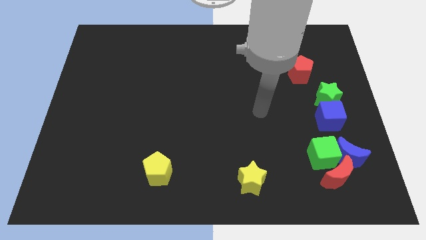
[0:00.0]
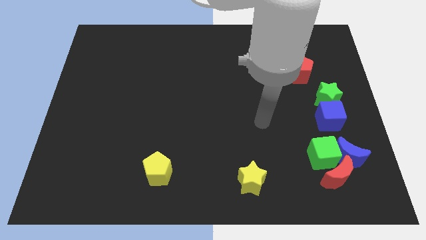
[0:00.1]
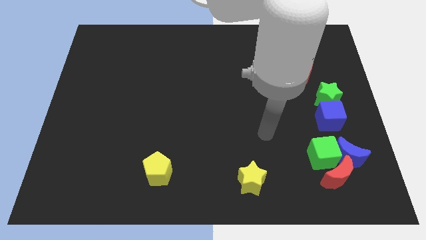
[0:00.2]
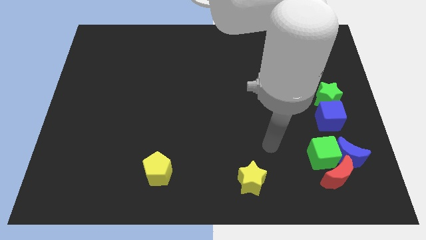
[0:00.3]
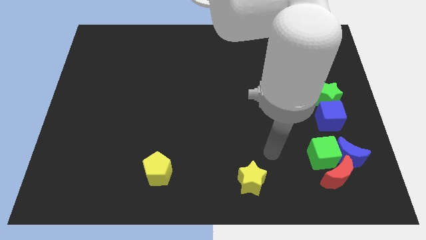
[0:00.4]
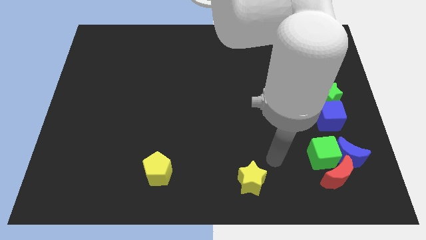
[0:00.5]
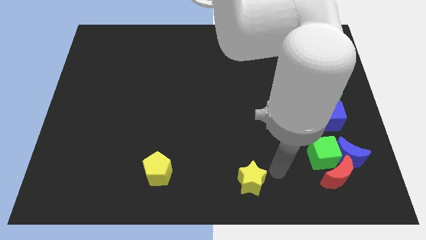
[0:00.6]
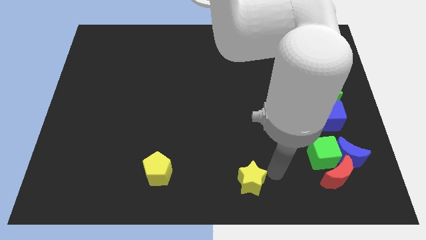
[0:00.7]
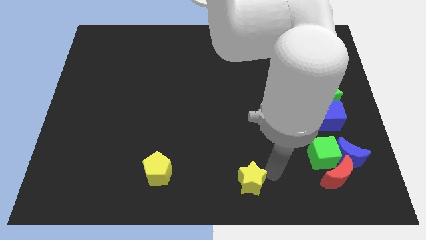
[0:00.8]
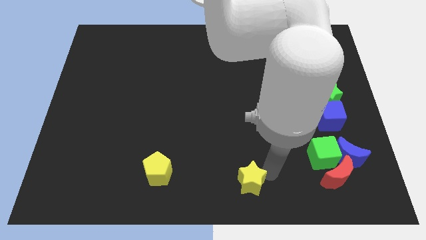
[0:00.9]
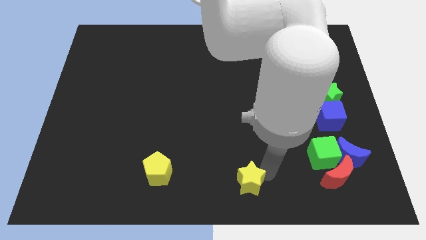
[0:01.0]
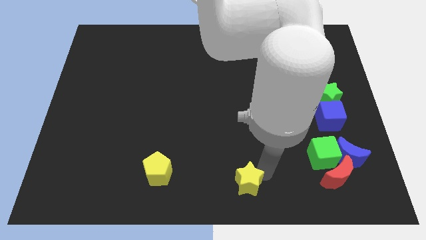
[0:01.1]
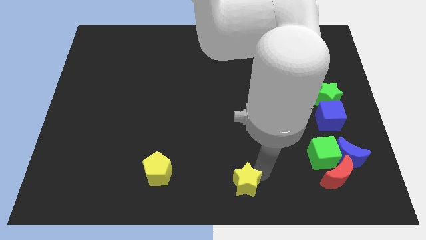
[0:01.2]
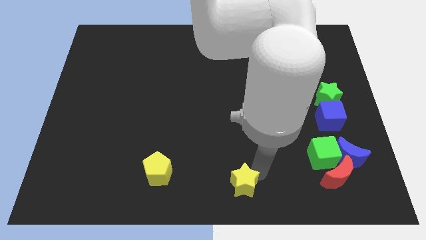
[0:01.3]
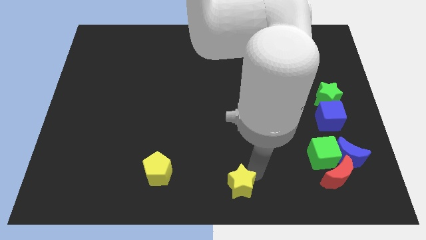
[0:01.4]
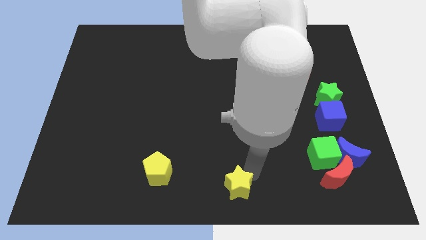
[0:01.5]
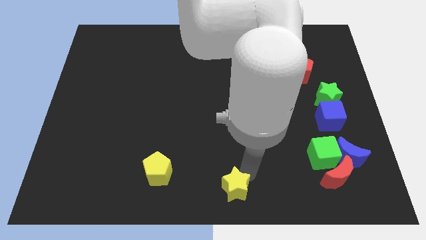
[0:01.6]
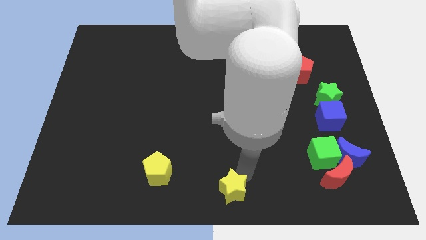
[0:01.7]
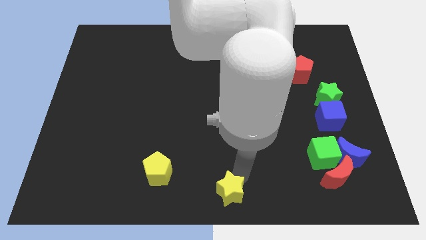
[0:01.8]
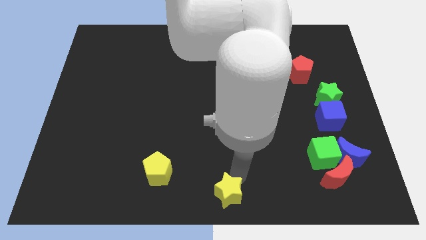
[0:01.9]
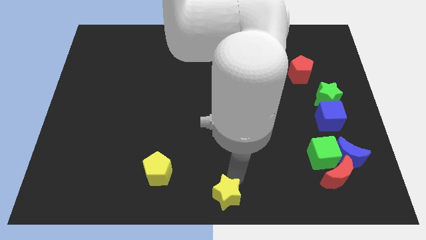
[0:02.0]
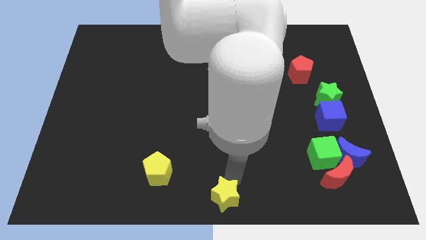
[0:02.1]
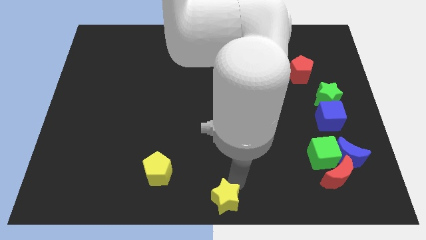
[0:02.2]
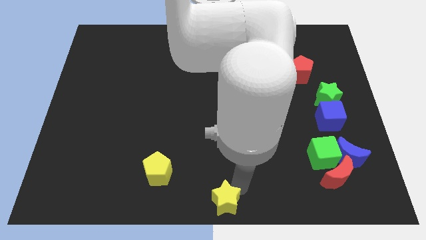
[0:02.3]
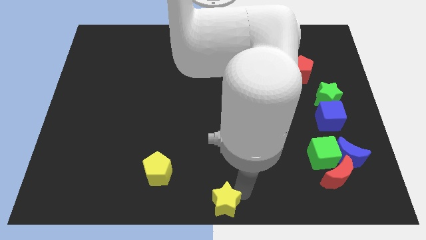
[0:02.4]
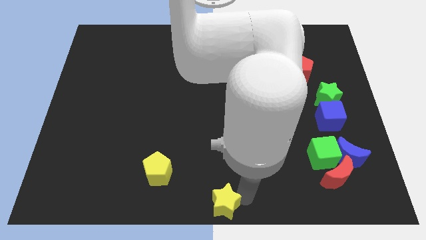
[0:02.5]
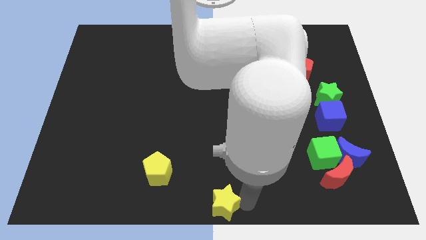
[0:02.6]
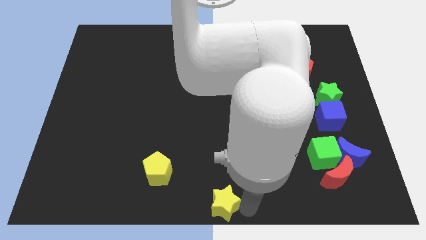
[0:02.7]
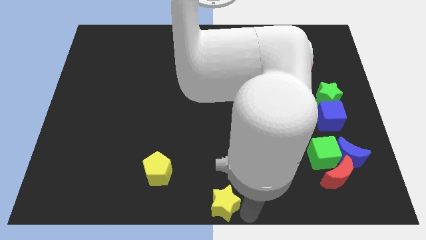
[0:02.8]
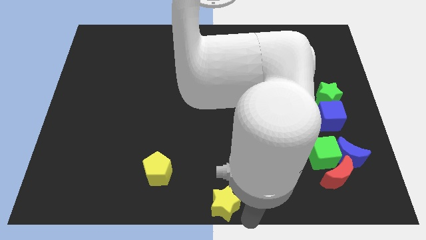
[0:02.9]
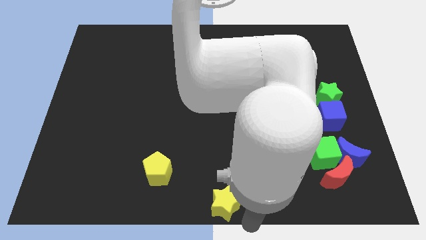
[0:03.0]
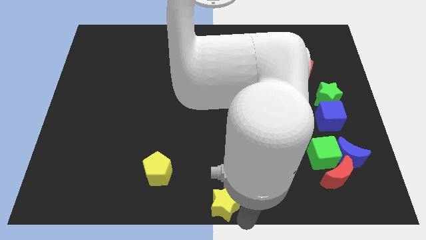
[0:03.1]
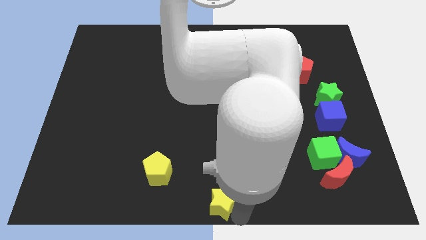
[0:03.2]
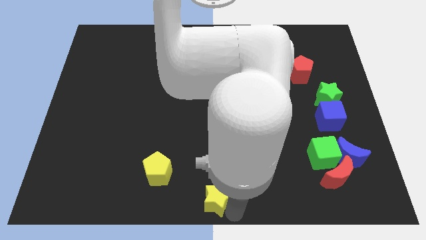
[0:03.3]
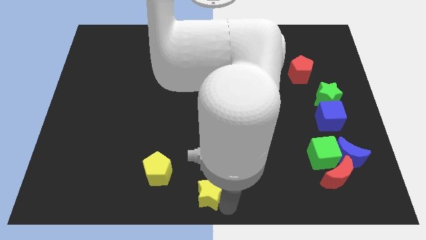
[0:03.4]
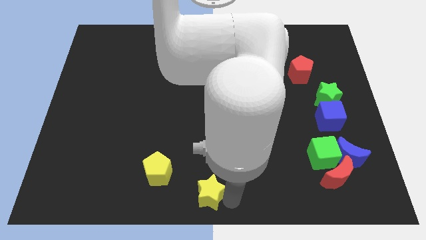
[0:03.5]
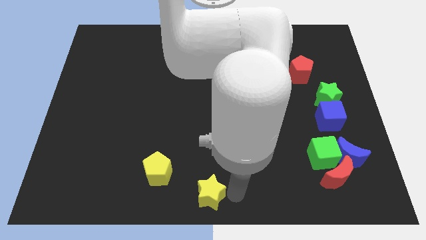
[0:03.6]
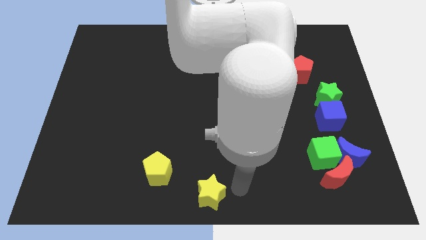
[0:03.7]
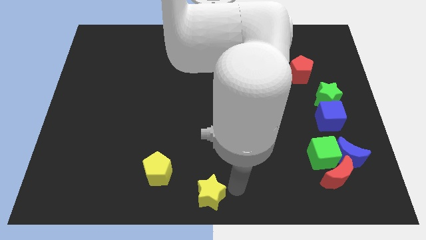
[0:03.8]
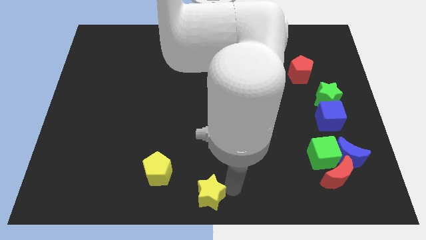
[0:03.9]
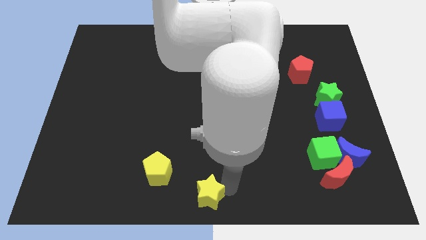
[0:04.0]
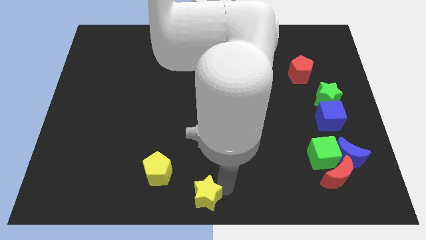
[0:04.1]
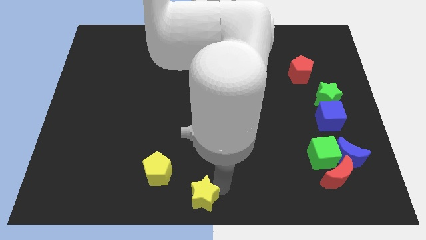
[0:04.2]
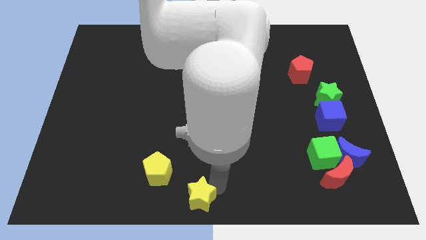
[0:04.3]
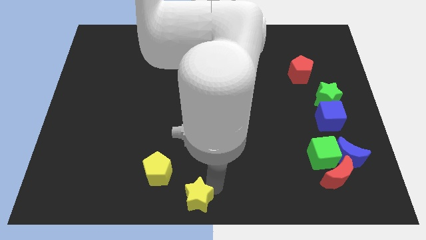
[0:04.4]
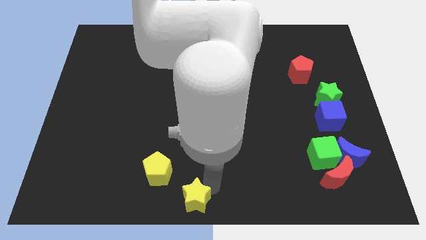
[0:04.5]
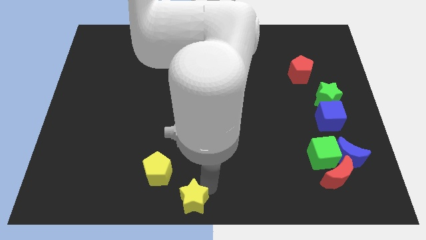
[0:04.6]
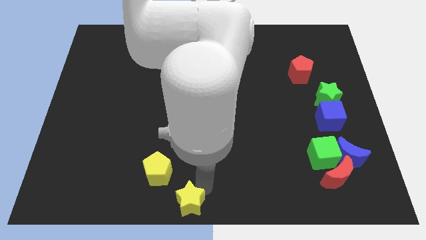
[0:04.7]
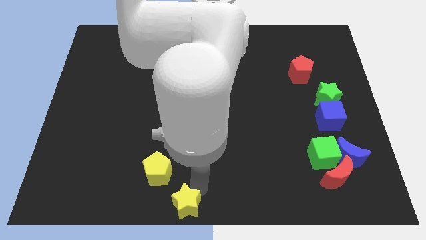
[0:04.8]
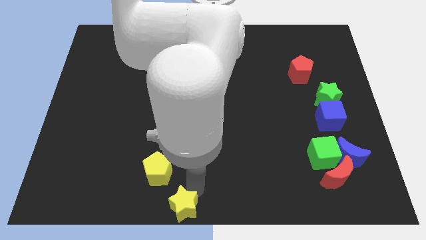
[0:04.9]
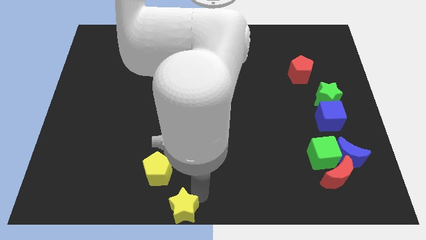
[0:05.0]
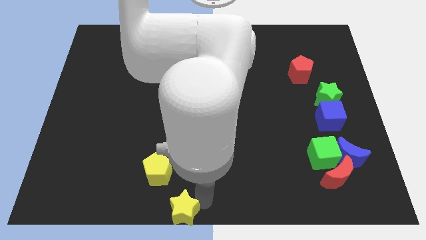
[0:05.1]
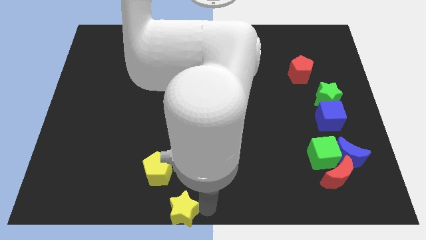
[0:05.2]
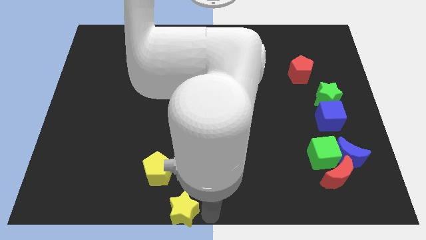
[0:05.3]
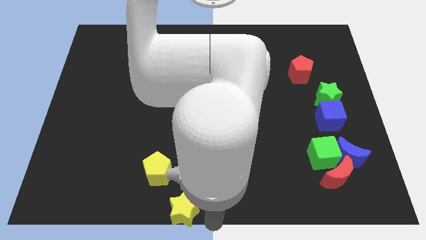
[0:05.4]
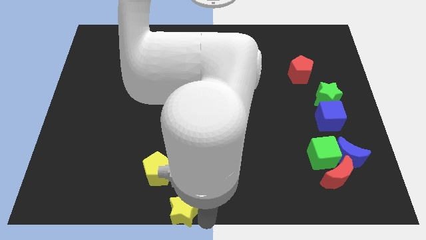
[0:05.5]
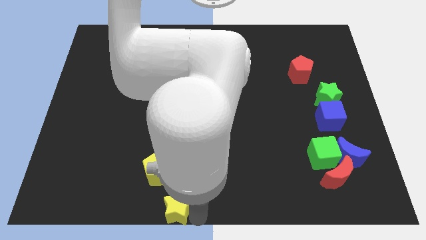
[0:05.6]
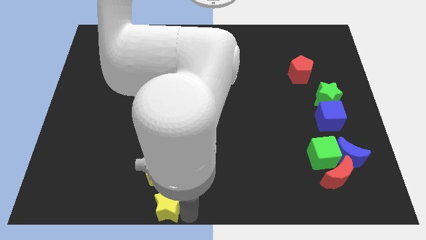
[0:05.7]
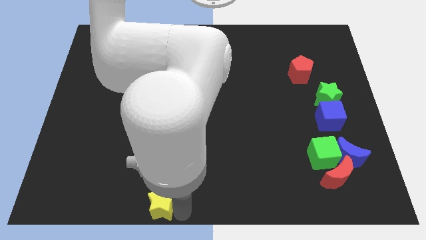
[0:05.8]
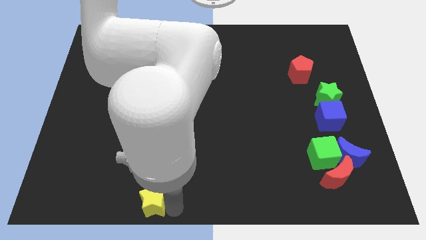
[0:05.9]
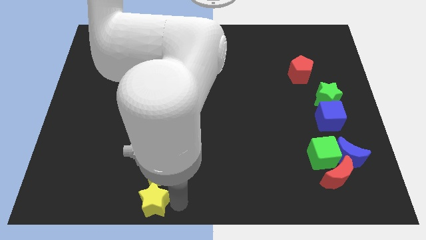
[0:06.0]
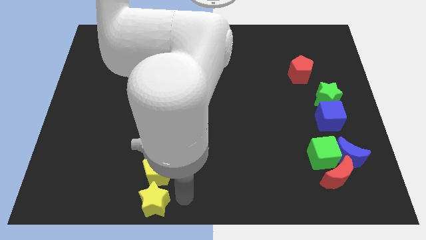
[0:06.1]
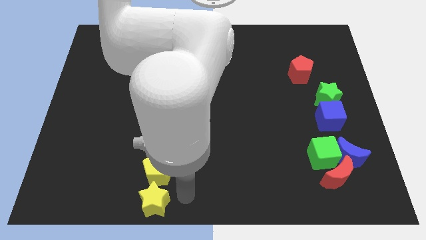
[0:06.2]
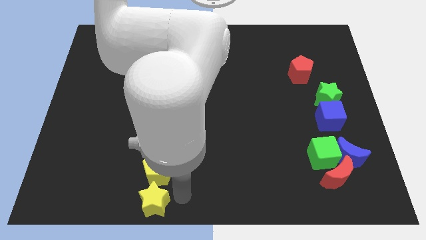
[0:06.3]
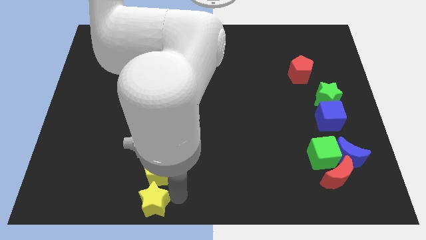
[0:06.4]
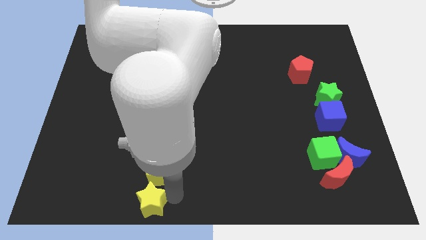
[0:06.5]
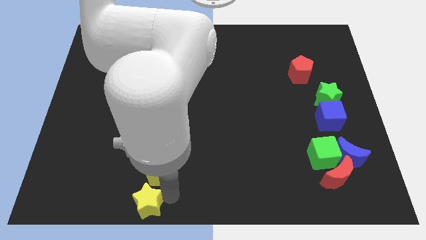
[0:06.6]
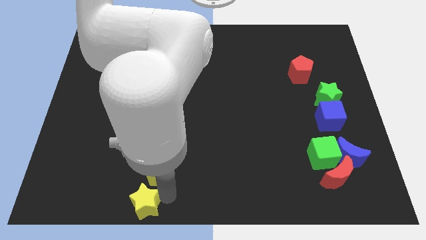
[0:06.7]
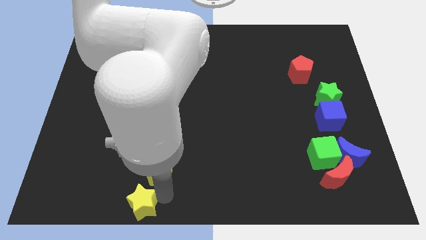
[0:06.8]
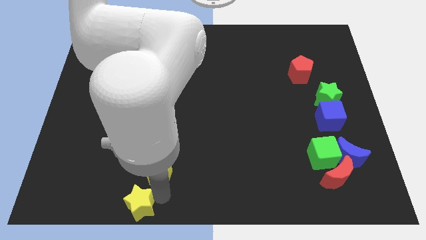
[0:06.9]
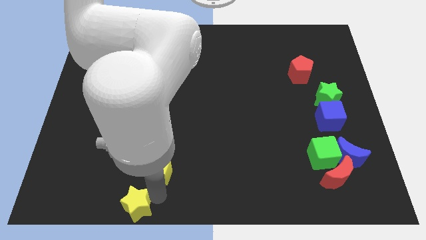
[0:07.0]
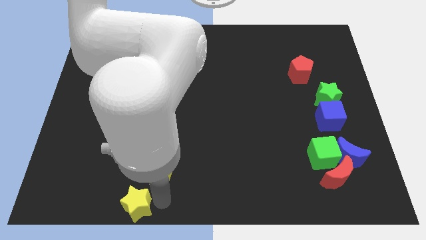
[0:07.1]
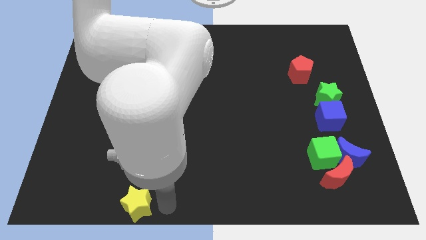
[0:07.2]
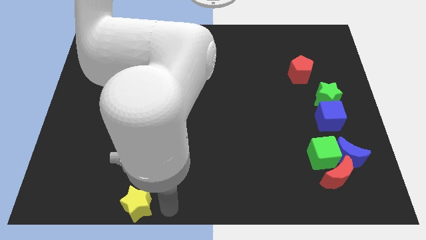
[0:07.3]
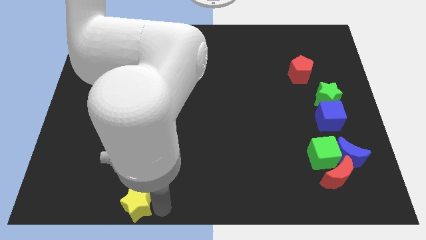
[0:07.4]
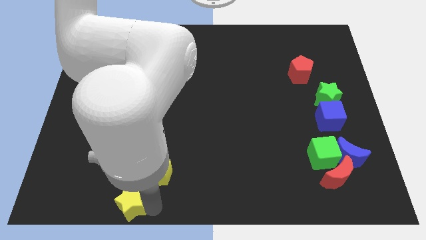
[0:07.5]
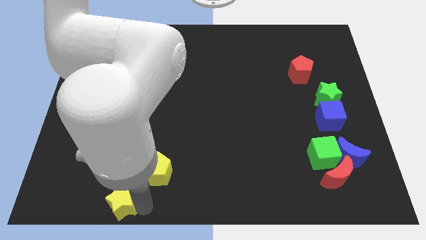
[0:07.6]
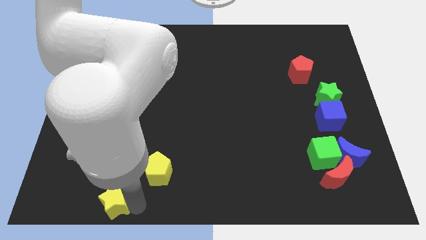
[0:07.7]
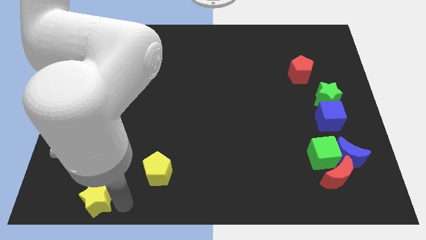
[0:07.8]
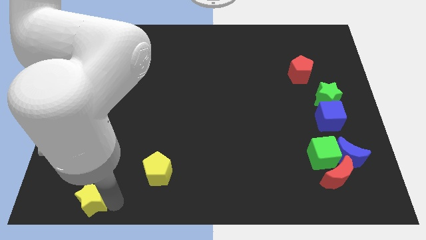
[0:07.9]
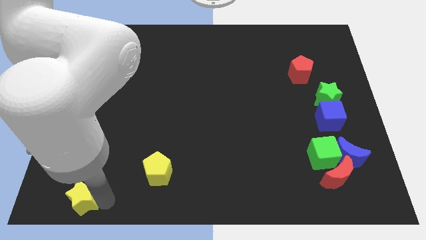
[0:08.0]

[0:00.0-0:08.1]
slide the yellow star to the lower left corner
